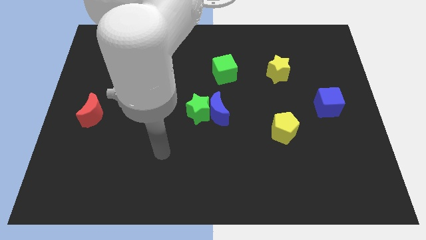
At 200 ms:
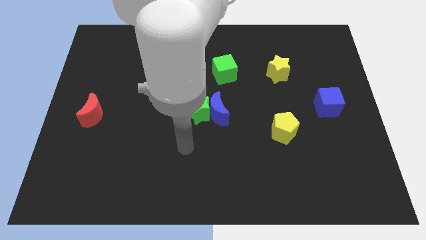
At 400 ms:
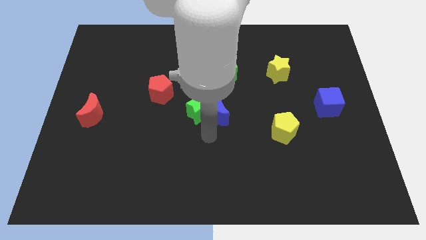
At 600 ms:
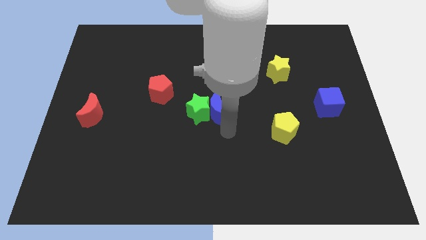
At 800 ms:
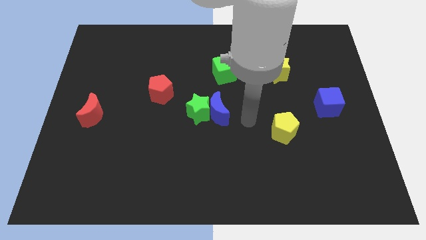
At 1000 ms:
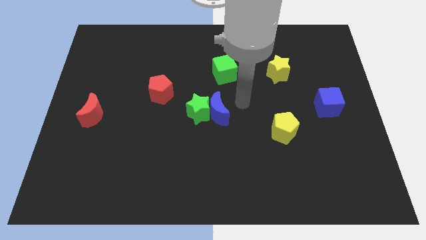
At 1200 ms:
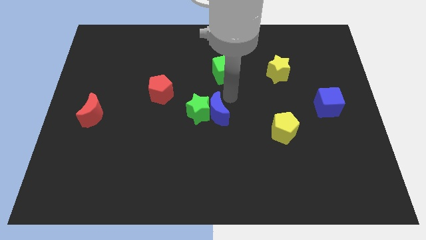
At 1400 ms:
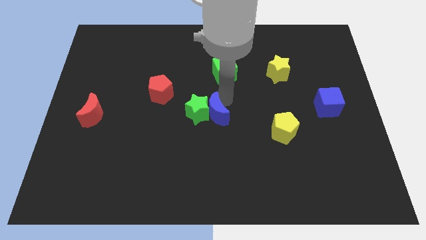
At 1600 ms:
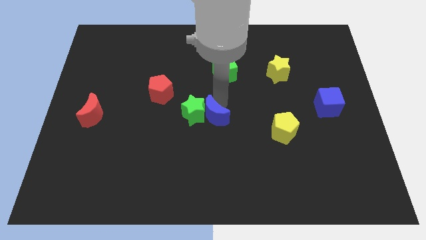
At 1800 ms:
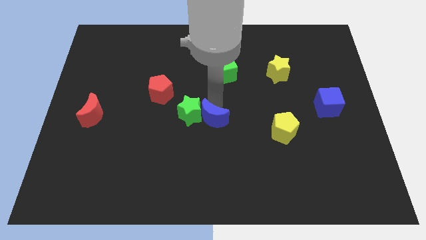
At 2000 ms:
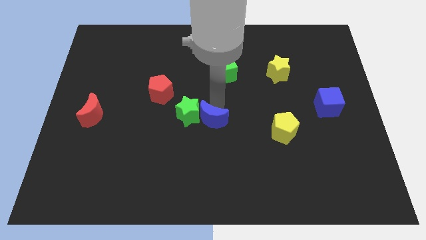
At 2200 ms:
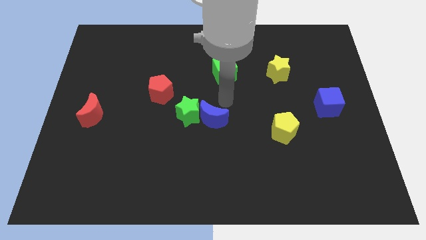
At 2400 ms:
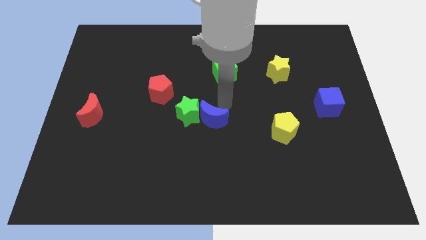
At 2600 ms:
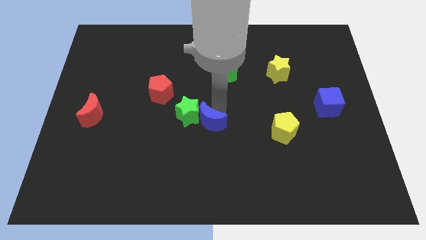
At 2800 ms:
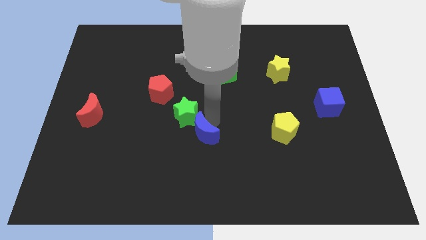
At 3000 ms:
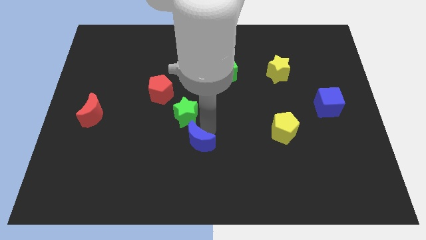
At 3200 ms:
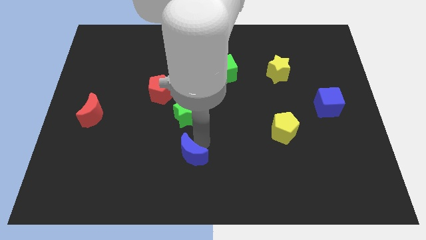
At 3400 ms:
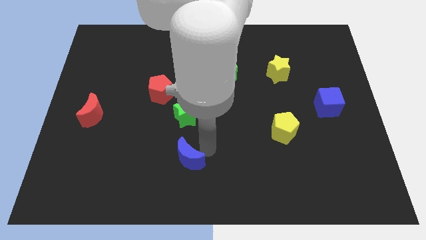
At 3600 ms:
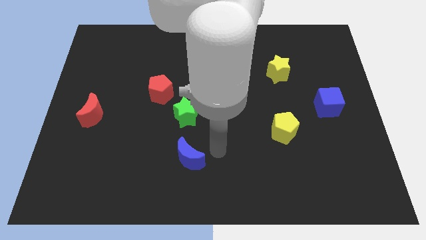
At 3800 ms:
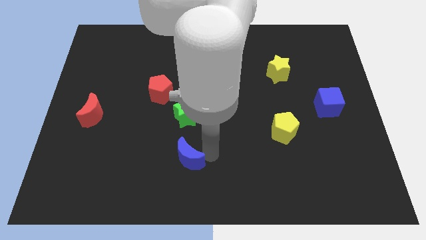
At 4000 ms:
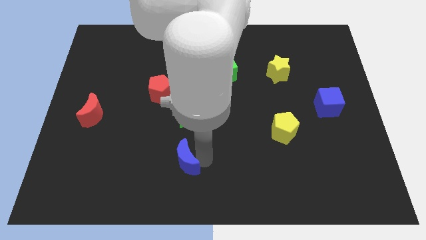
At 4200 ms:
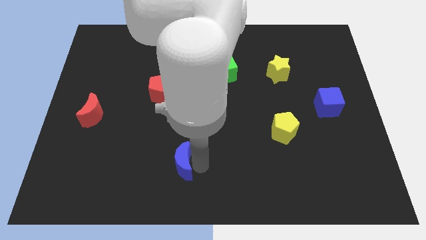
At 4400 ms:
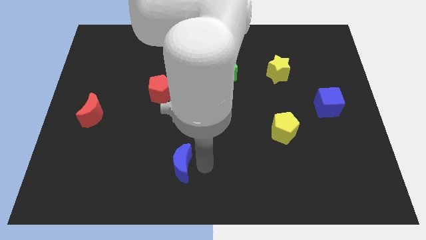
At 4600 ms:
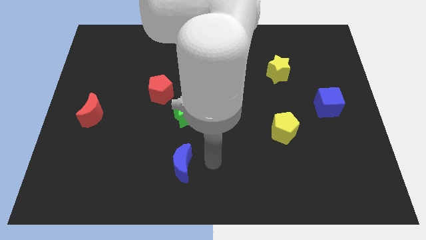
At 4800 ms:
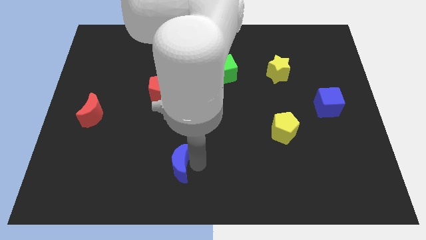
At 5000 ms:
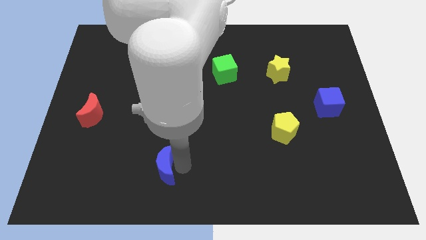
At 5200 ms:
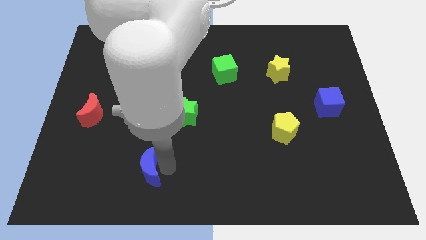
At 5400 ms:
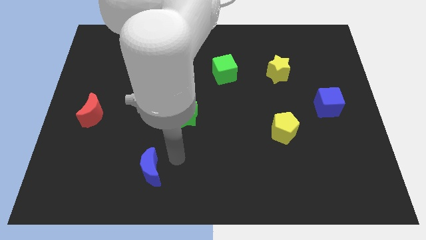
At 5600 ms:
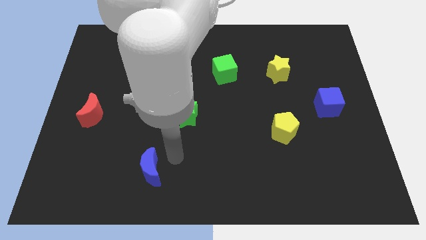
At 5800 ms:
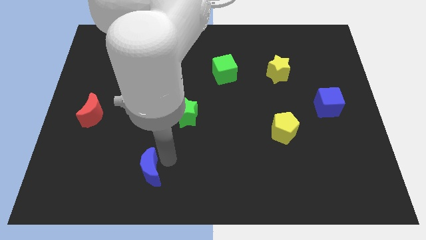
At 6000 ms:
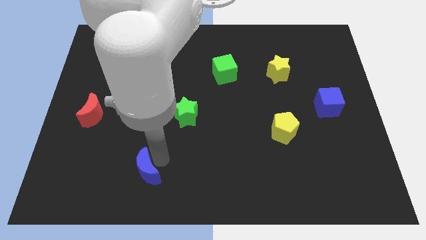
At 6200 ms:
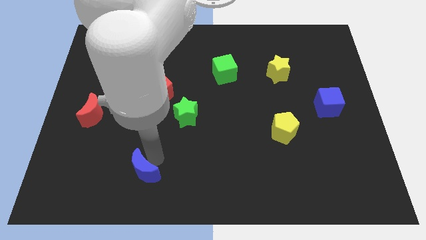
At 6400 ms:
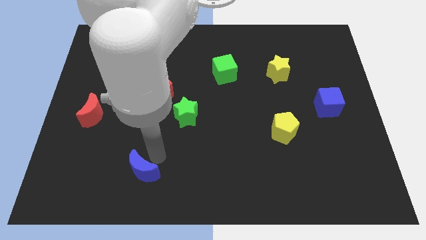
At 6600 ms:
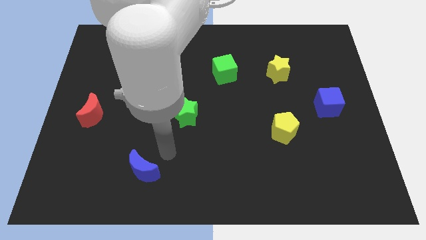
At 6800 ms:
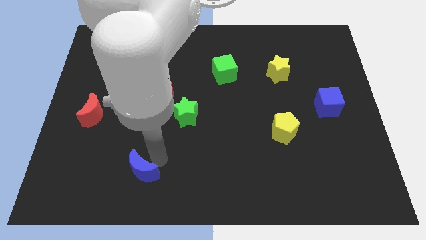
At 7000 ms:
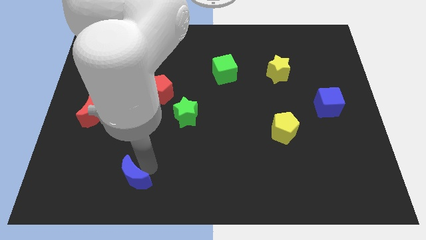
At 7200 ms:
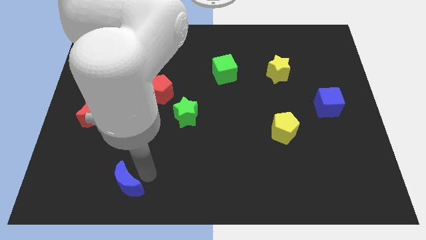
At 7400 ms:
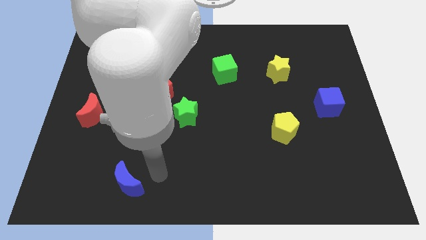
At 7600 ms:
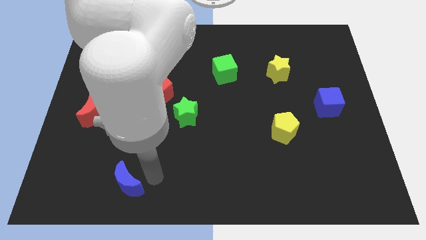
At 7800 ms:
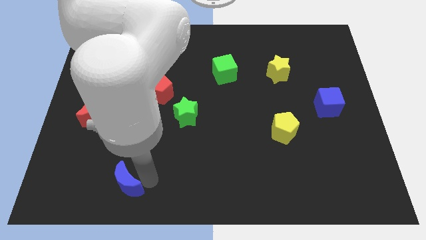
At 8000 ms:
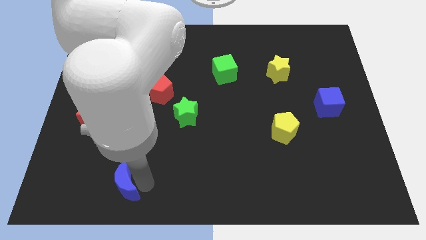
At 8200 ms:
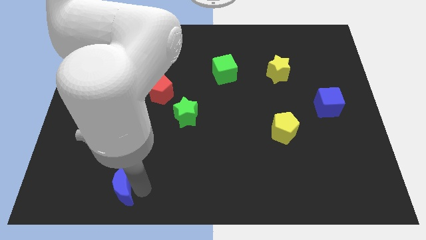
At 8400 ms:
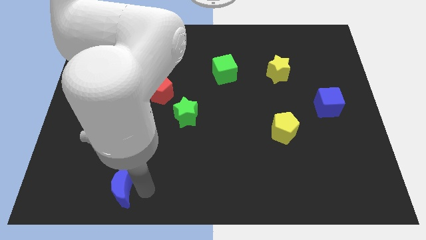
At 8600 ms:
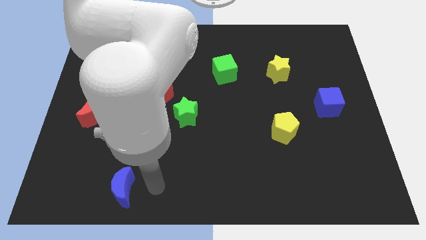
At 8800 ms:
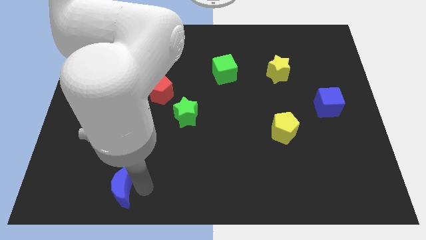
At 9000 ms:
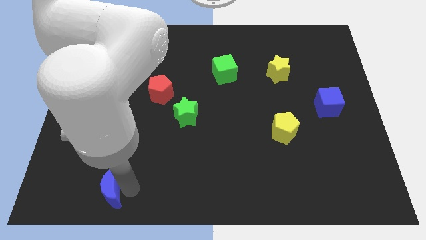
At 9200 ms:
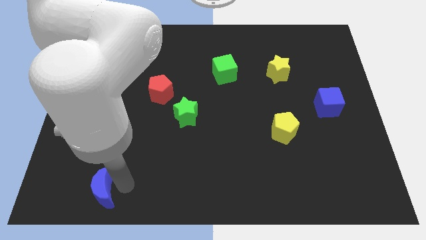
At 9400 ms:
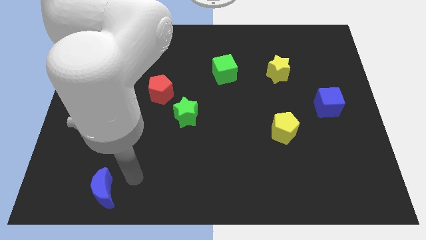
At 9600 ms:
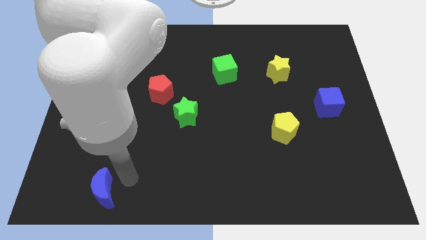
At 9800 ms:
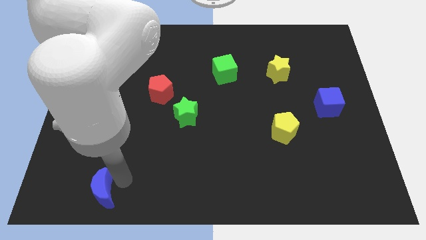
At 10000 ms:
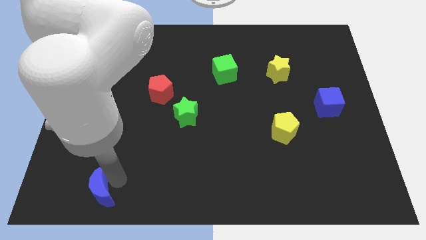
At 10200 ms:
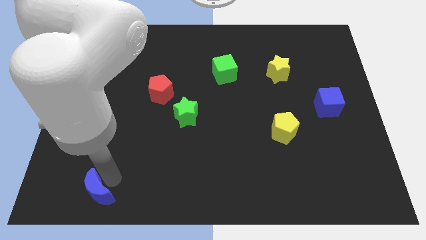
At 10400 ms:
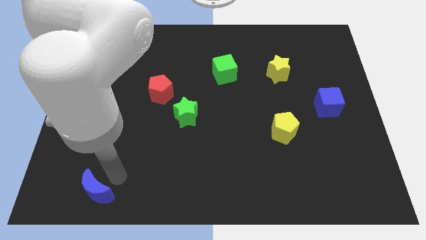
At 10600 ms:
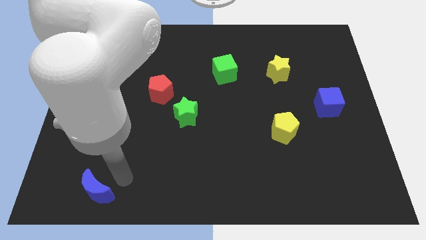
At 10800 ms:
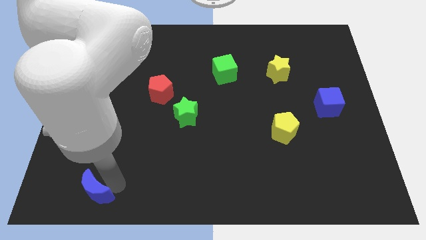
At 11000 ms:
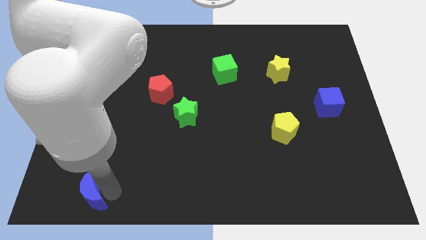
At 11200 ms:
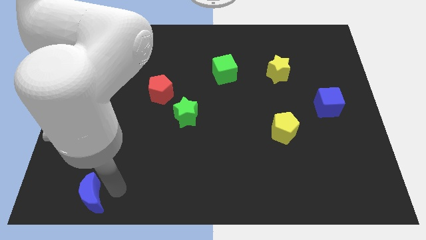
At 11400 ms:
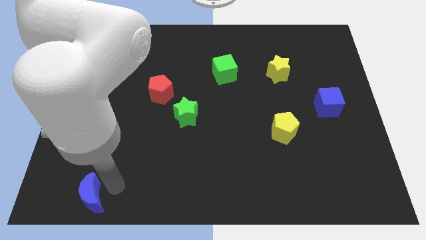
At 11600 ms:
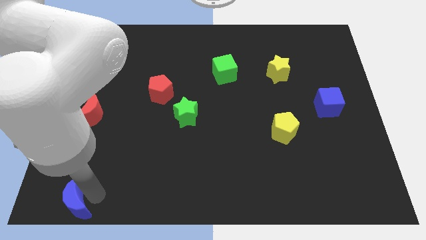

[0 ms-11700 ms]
push the blue moon to the bottom left corner
